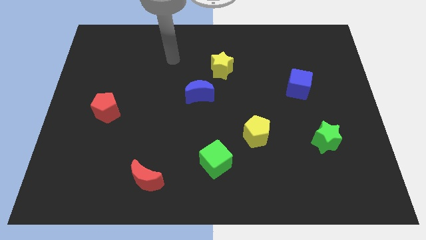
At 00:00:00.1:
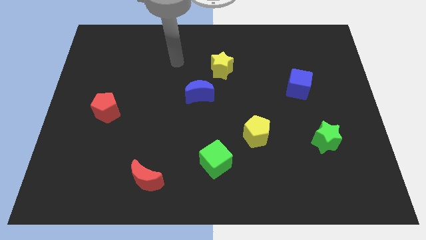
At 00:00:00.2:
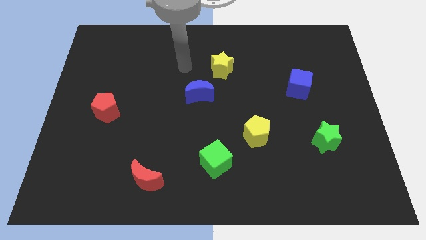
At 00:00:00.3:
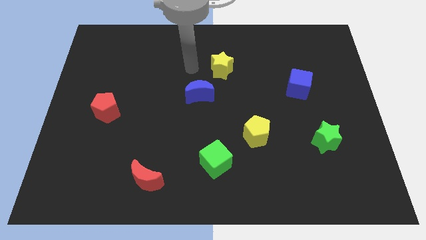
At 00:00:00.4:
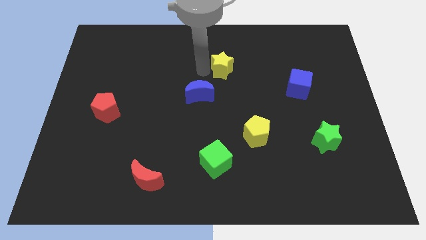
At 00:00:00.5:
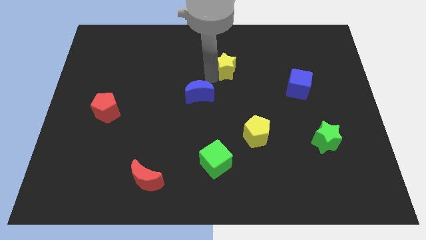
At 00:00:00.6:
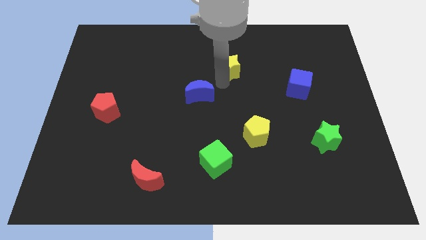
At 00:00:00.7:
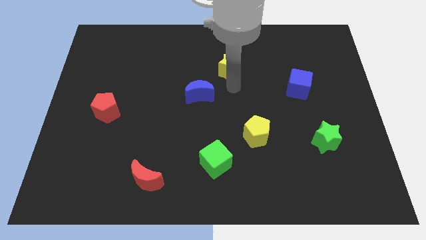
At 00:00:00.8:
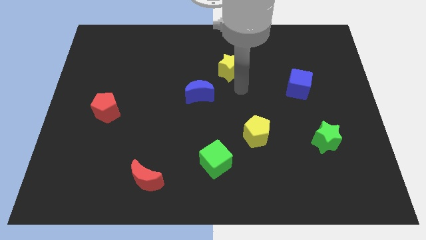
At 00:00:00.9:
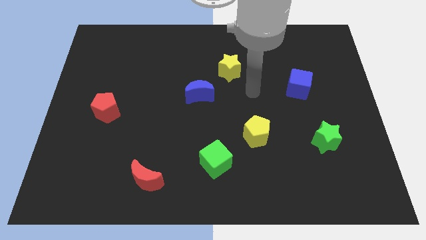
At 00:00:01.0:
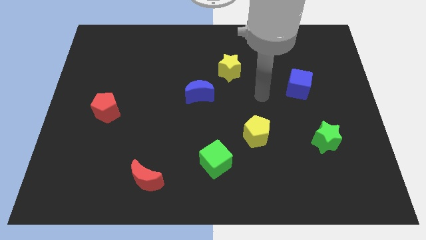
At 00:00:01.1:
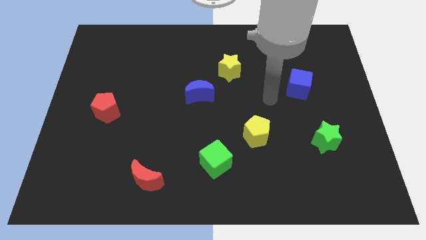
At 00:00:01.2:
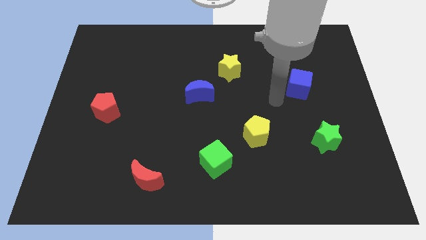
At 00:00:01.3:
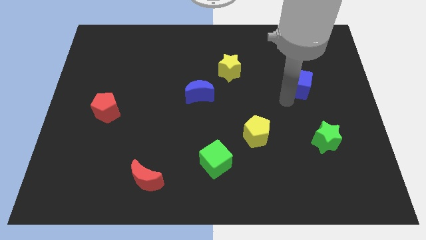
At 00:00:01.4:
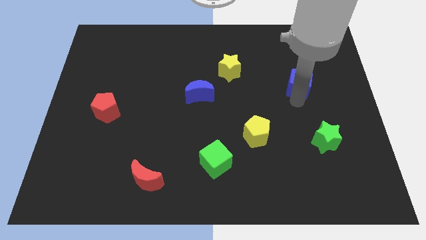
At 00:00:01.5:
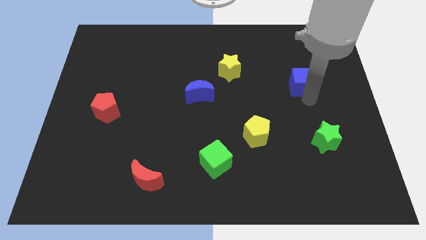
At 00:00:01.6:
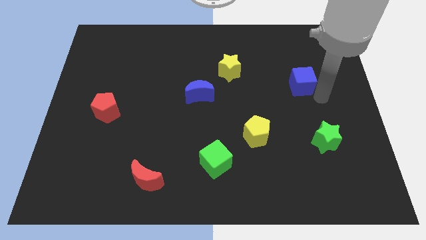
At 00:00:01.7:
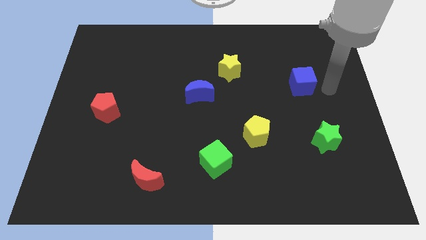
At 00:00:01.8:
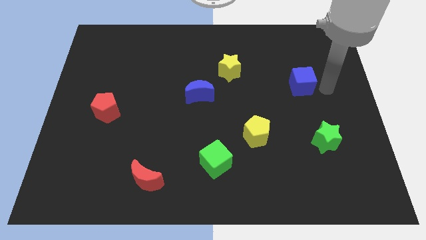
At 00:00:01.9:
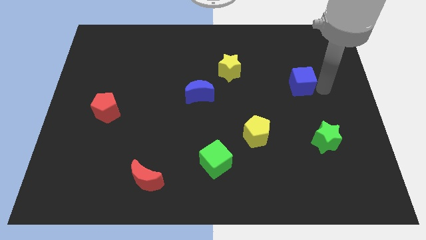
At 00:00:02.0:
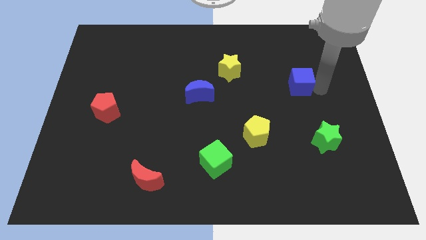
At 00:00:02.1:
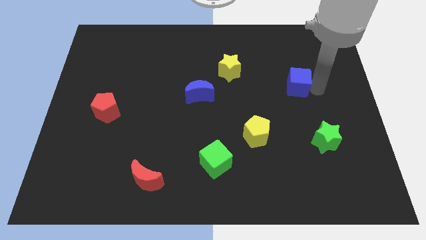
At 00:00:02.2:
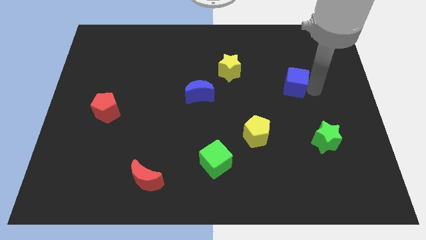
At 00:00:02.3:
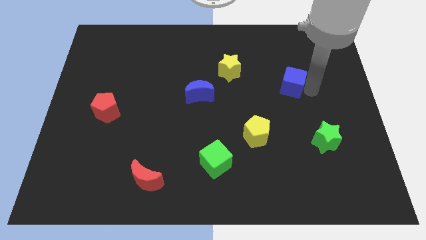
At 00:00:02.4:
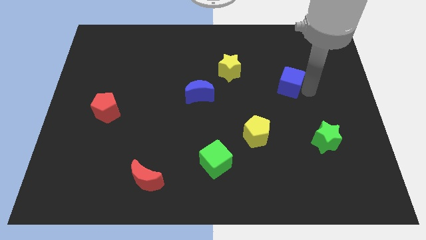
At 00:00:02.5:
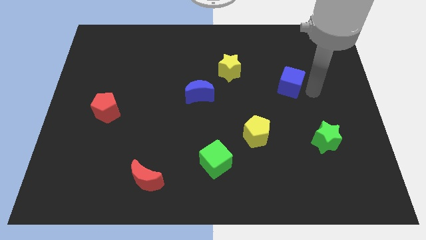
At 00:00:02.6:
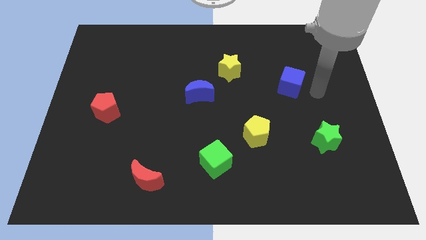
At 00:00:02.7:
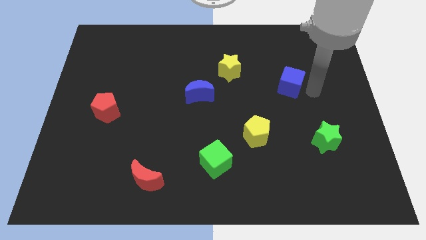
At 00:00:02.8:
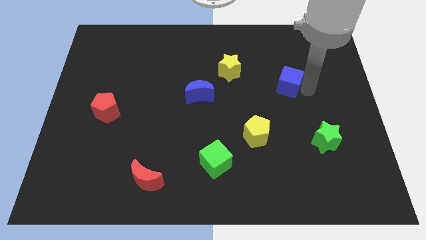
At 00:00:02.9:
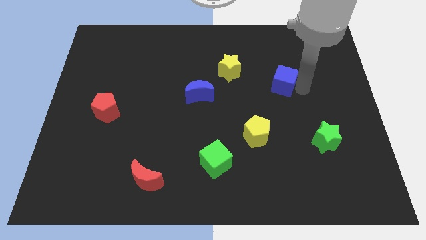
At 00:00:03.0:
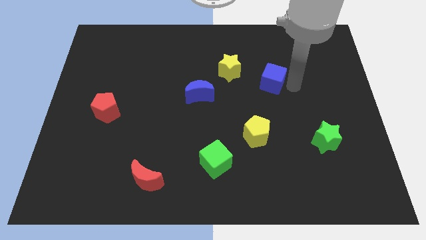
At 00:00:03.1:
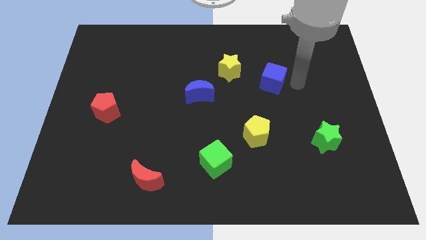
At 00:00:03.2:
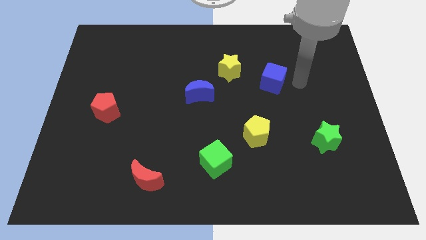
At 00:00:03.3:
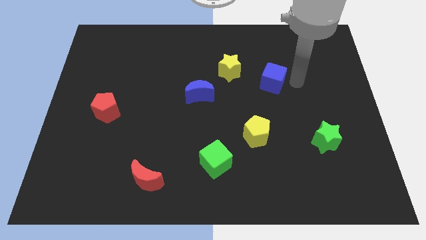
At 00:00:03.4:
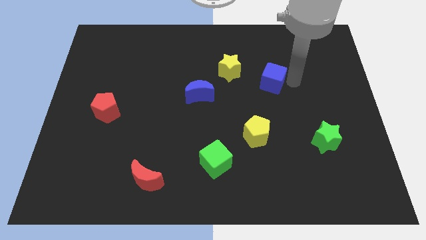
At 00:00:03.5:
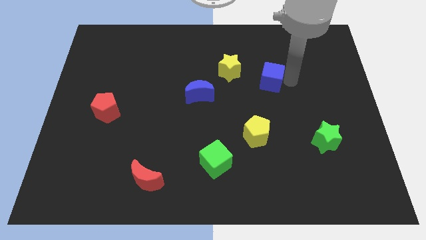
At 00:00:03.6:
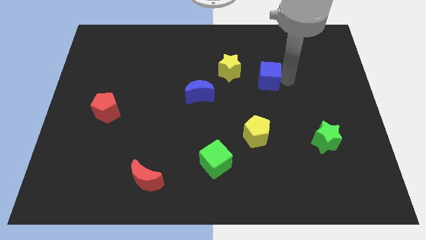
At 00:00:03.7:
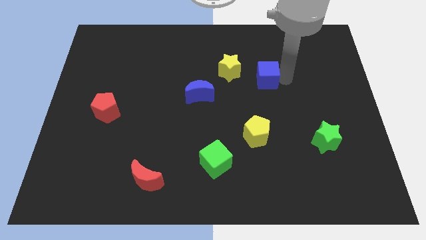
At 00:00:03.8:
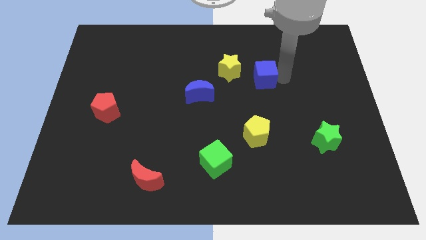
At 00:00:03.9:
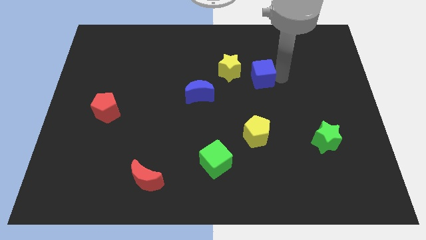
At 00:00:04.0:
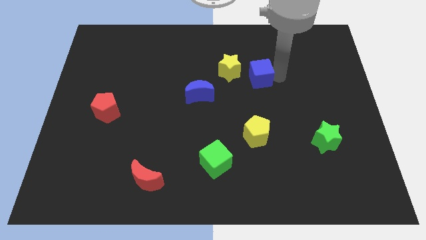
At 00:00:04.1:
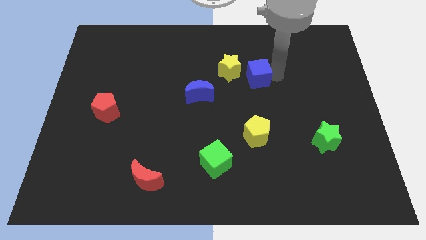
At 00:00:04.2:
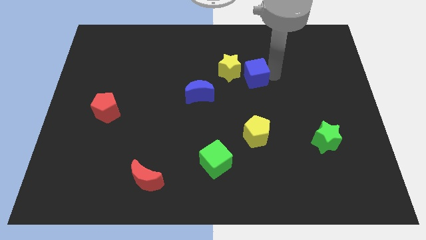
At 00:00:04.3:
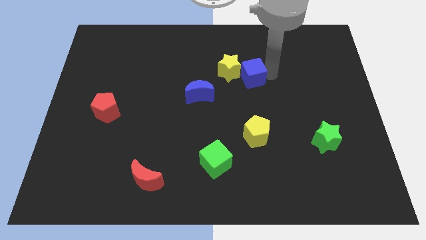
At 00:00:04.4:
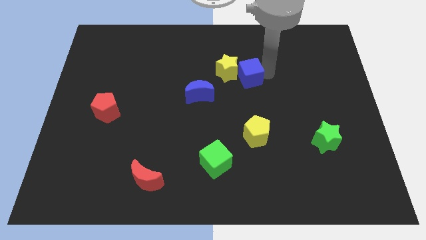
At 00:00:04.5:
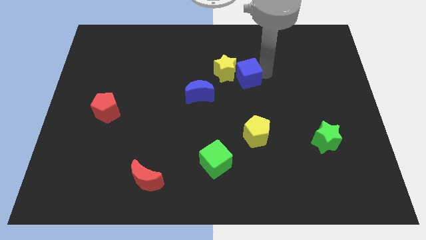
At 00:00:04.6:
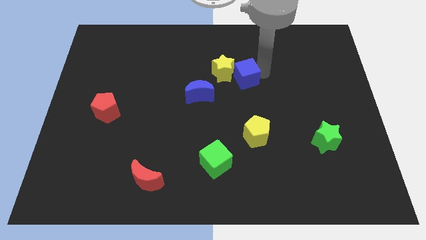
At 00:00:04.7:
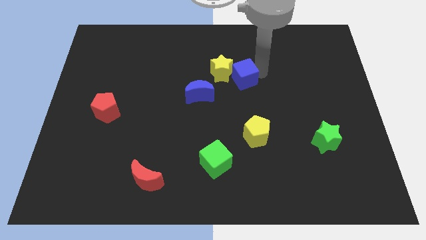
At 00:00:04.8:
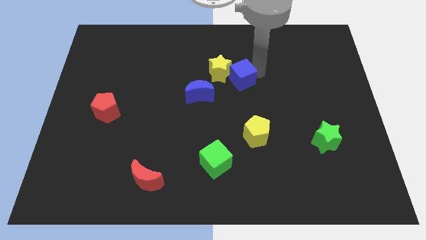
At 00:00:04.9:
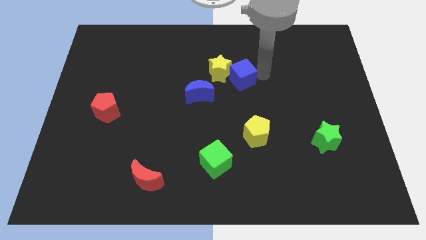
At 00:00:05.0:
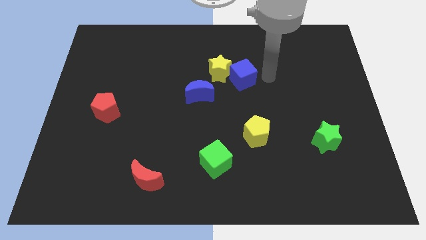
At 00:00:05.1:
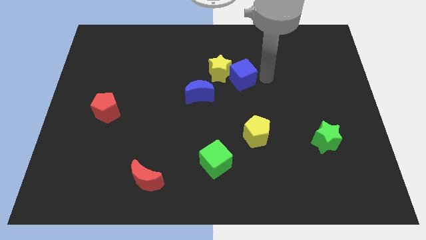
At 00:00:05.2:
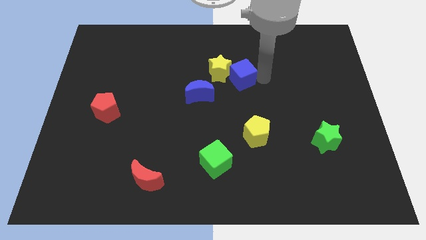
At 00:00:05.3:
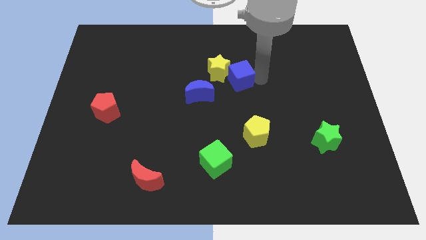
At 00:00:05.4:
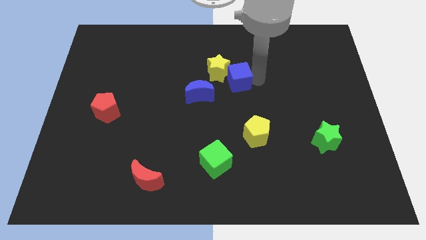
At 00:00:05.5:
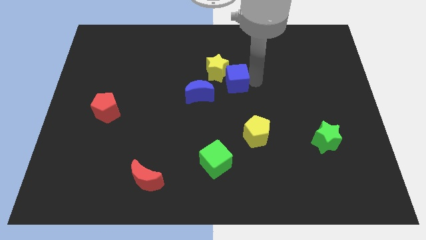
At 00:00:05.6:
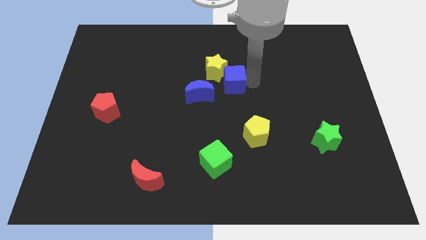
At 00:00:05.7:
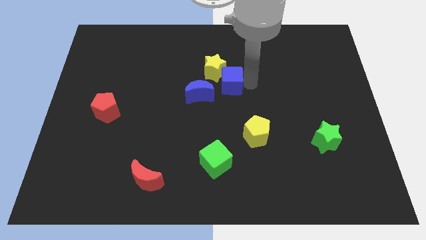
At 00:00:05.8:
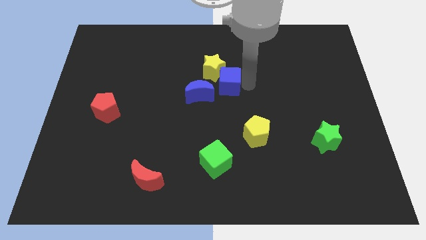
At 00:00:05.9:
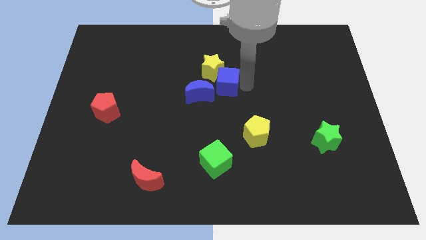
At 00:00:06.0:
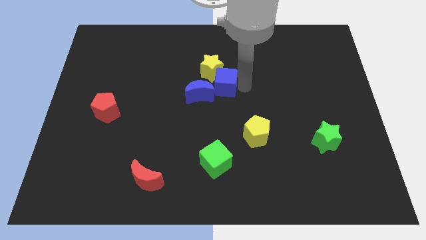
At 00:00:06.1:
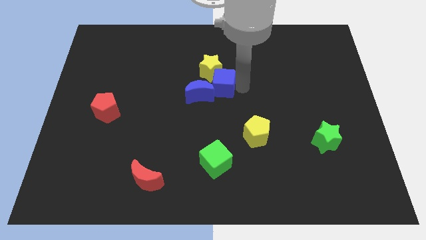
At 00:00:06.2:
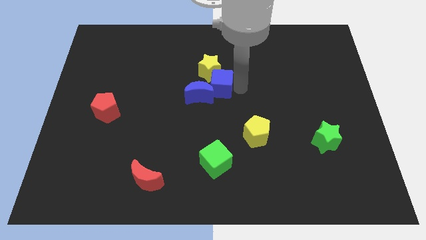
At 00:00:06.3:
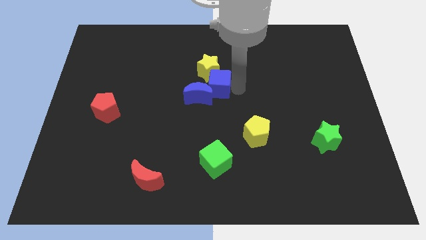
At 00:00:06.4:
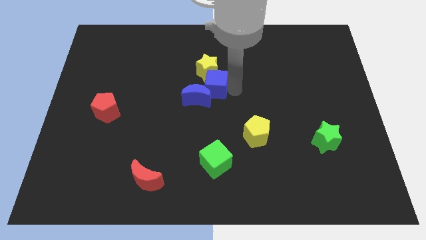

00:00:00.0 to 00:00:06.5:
move the blue cube to the left

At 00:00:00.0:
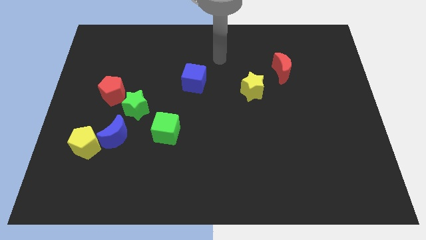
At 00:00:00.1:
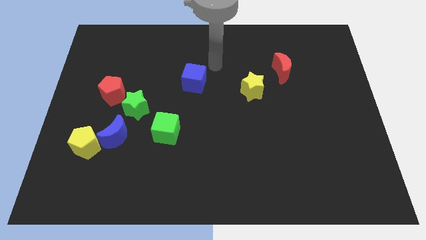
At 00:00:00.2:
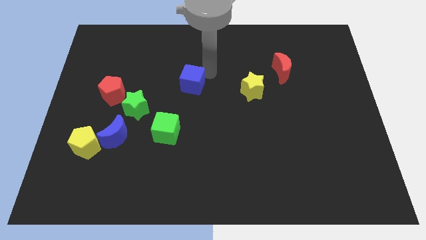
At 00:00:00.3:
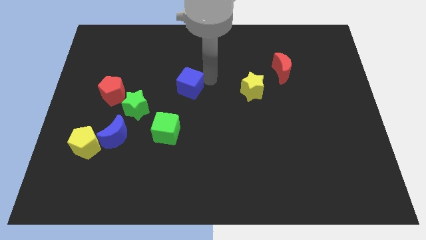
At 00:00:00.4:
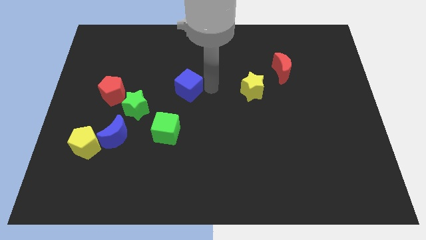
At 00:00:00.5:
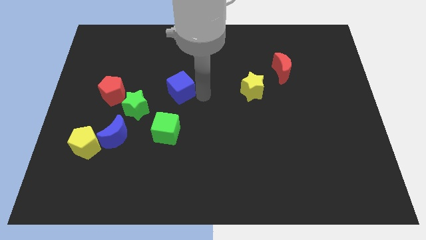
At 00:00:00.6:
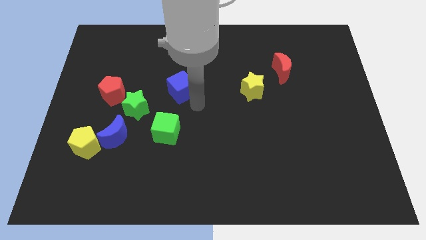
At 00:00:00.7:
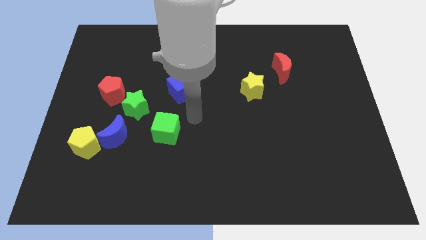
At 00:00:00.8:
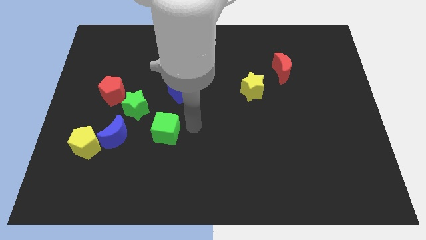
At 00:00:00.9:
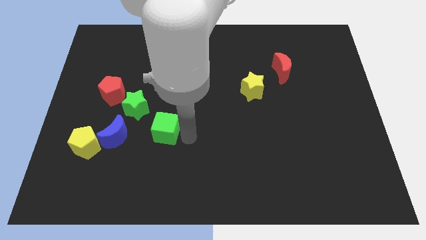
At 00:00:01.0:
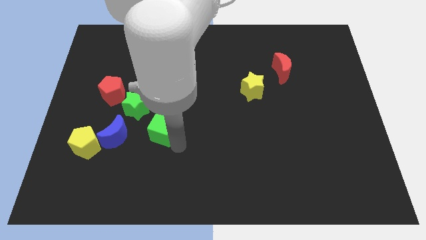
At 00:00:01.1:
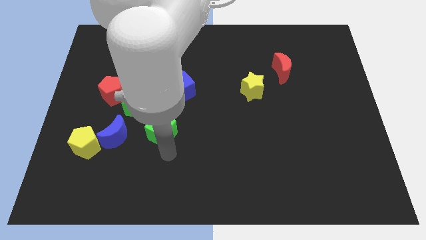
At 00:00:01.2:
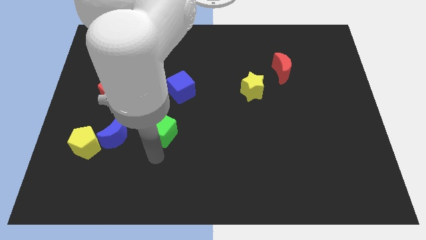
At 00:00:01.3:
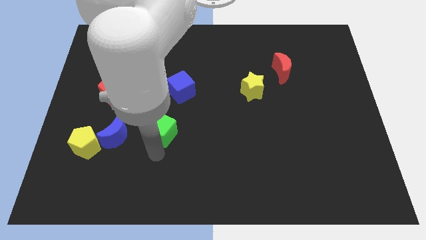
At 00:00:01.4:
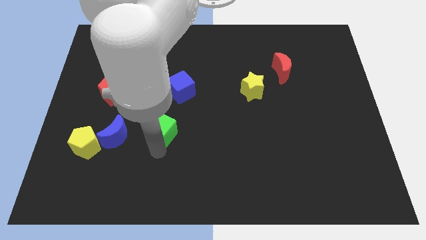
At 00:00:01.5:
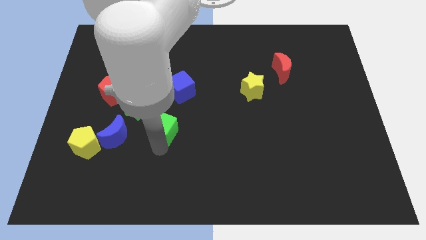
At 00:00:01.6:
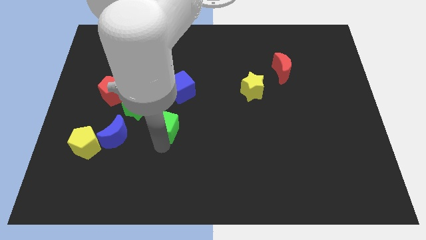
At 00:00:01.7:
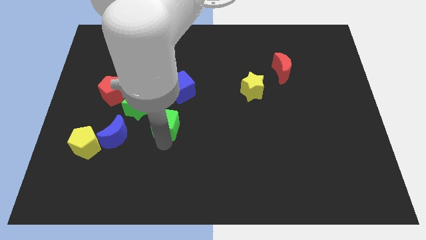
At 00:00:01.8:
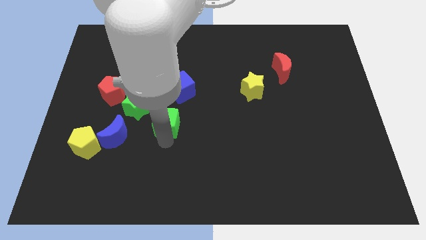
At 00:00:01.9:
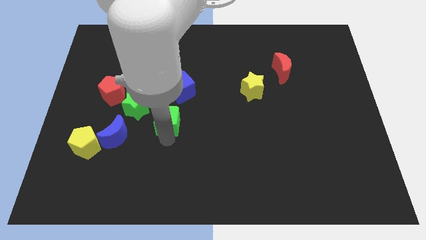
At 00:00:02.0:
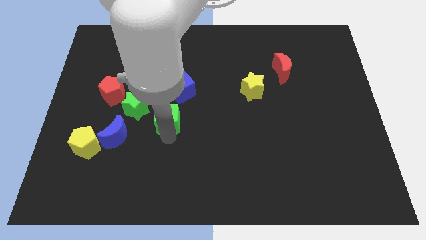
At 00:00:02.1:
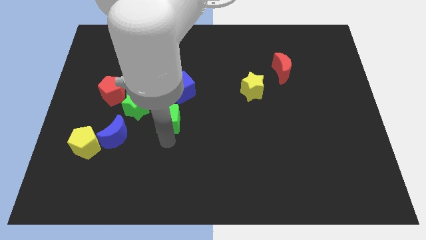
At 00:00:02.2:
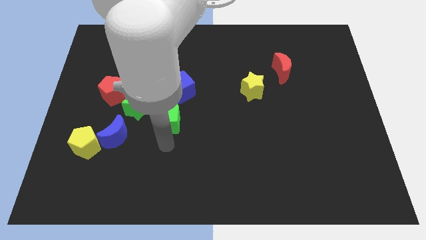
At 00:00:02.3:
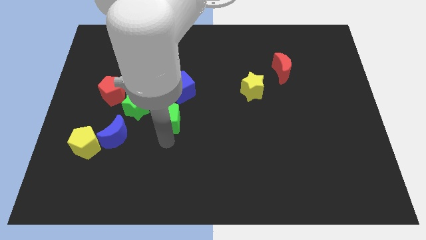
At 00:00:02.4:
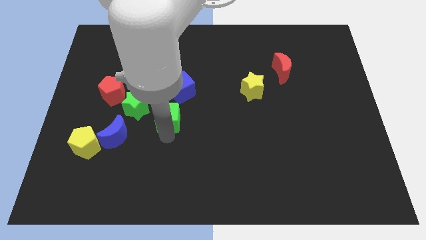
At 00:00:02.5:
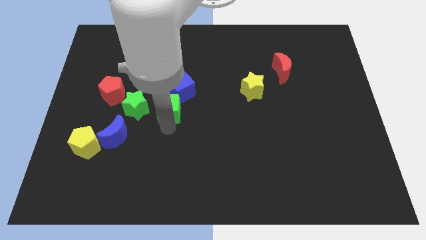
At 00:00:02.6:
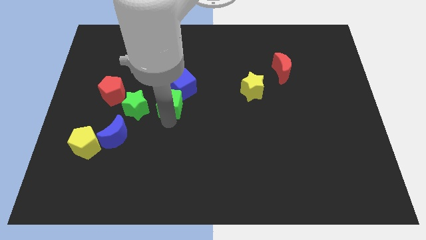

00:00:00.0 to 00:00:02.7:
push the green cube upwards a bit
